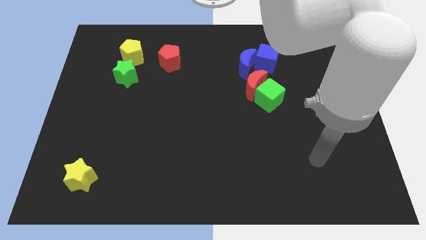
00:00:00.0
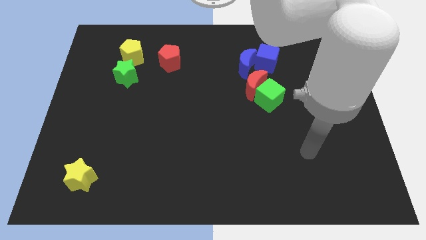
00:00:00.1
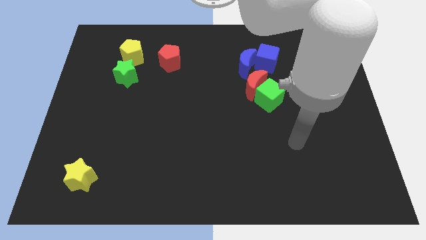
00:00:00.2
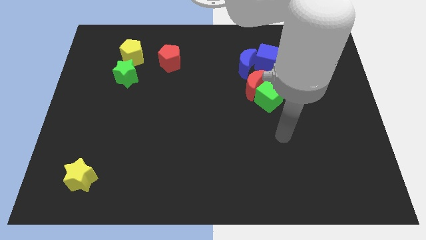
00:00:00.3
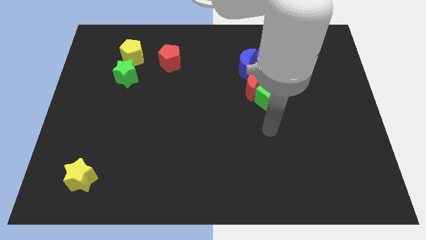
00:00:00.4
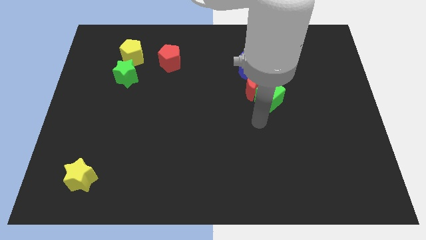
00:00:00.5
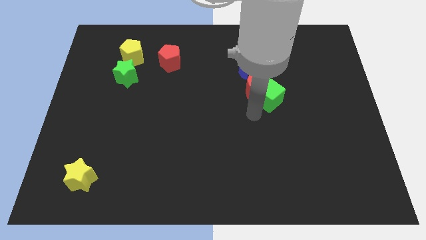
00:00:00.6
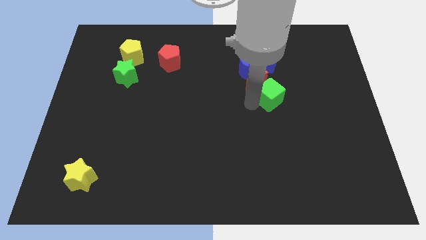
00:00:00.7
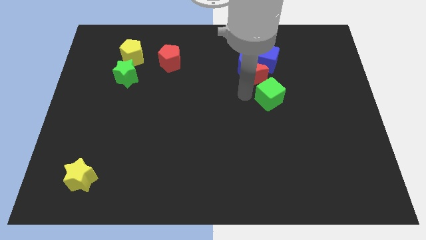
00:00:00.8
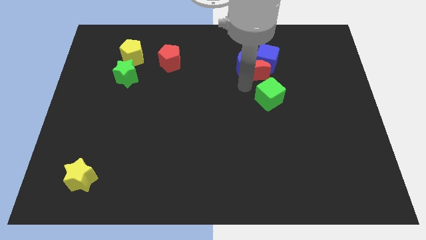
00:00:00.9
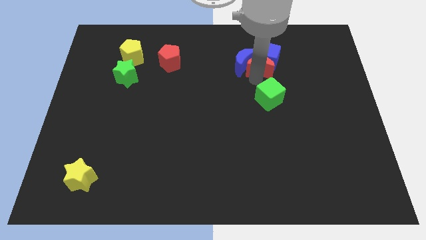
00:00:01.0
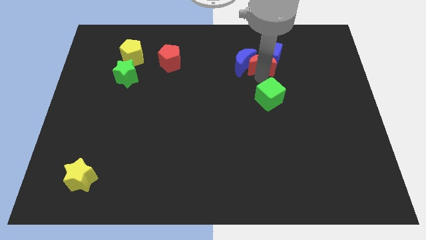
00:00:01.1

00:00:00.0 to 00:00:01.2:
move the green cube away from the red moon

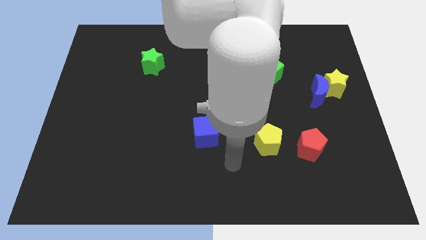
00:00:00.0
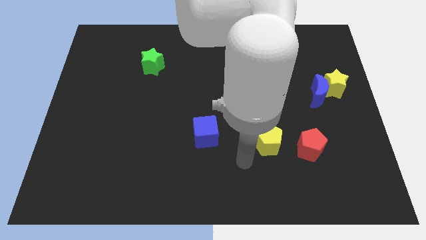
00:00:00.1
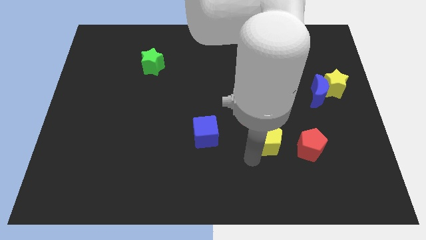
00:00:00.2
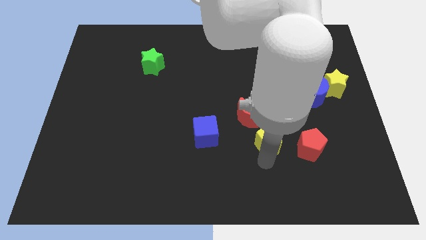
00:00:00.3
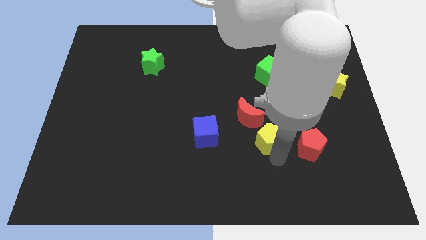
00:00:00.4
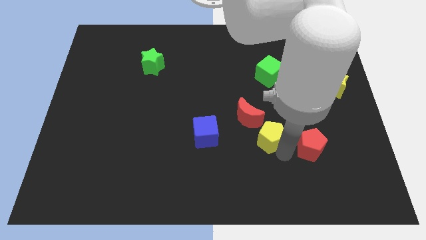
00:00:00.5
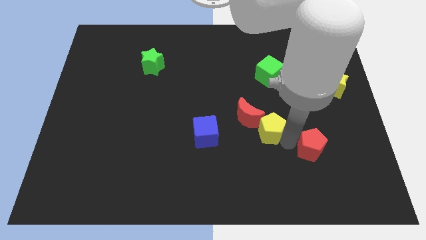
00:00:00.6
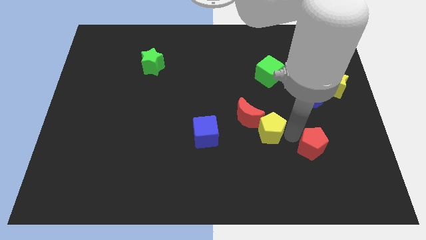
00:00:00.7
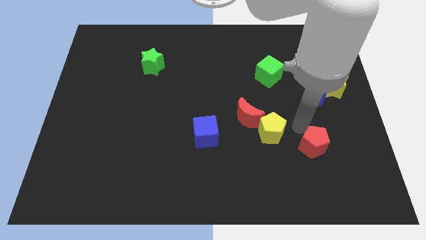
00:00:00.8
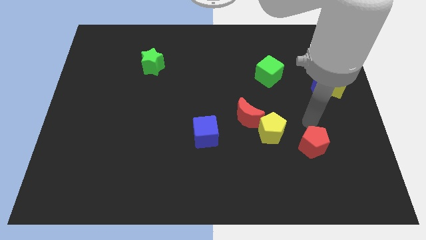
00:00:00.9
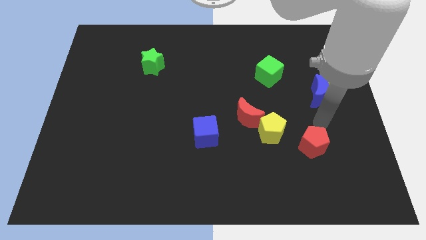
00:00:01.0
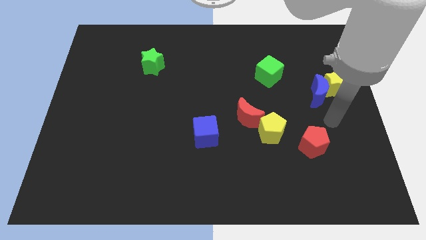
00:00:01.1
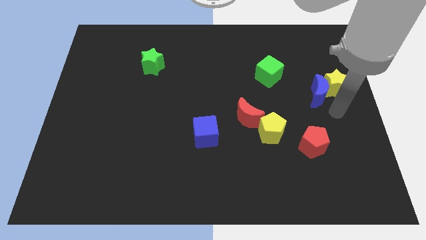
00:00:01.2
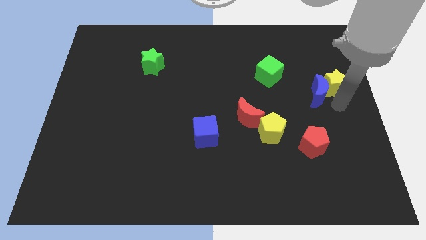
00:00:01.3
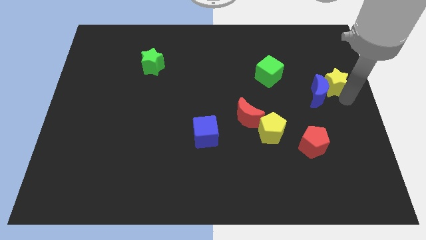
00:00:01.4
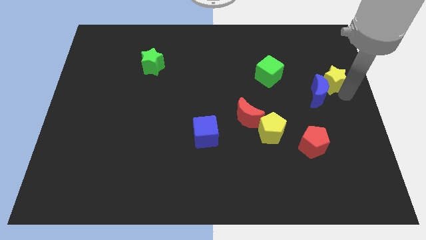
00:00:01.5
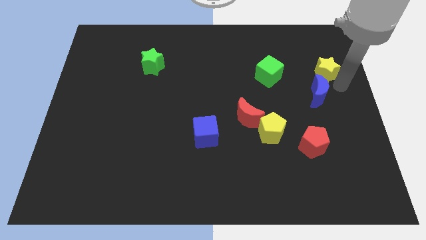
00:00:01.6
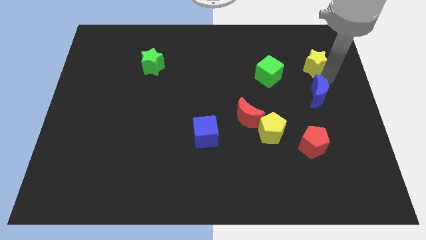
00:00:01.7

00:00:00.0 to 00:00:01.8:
pull the blue moon apart from the yellow star

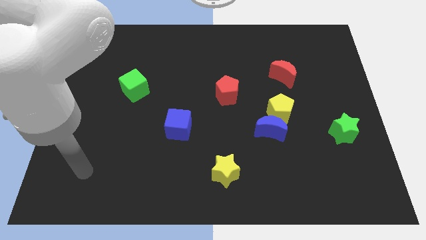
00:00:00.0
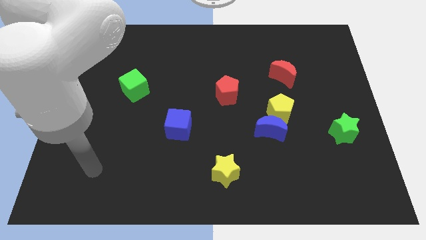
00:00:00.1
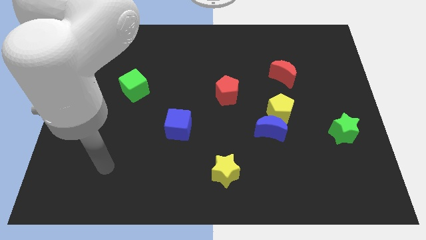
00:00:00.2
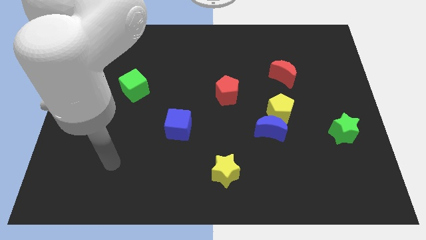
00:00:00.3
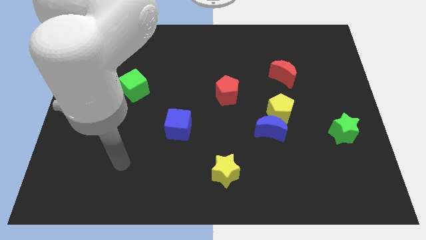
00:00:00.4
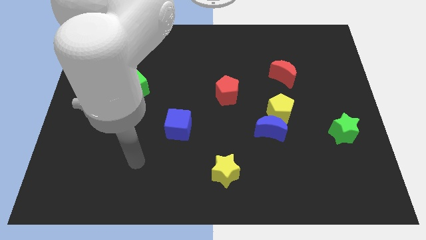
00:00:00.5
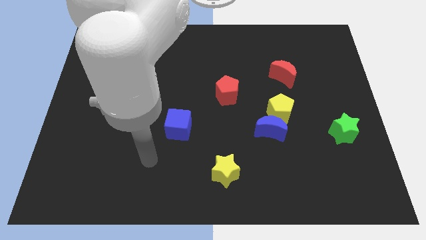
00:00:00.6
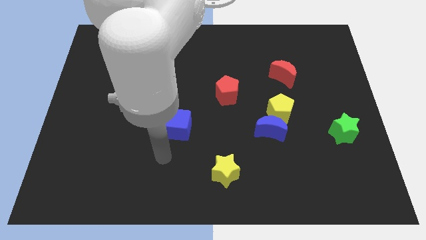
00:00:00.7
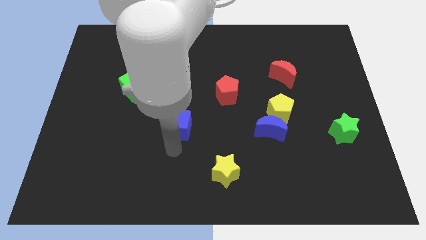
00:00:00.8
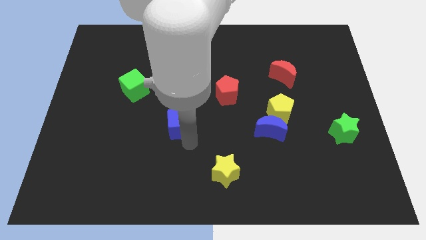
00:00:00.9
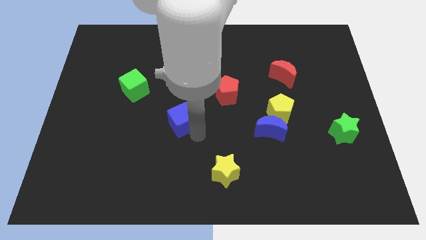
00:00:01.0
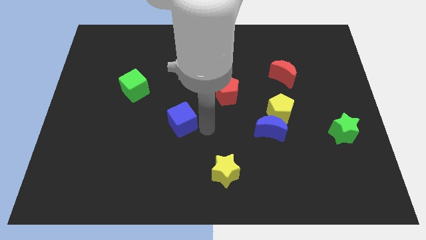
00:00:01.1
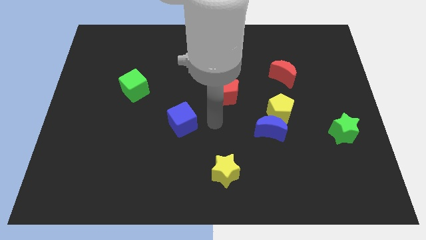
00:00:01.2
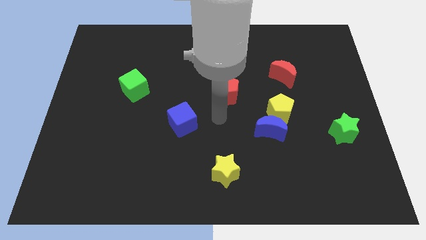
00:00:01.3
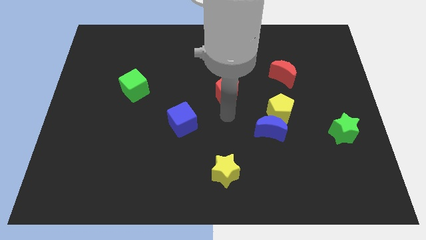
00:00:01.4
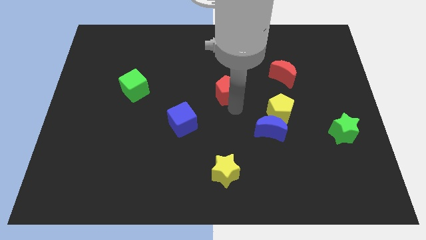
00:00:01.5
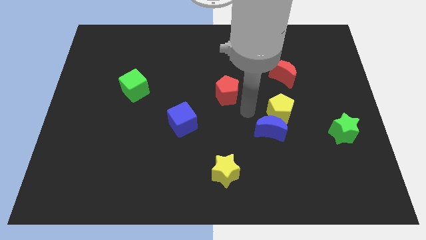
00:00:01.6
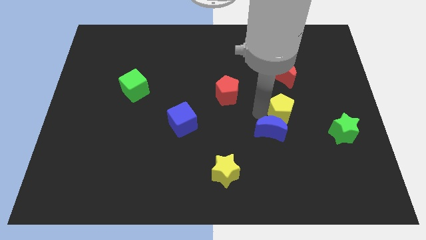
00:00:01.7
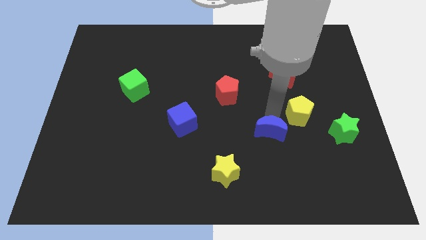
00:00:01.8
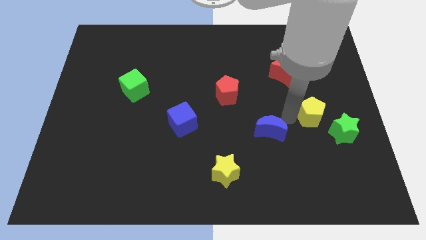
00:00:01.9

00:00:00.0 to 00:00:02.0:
move the blue moon away from the yellow pentagon

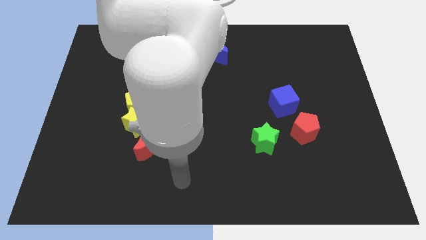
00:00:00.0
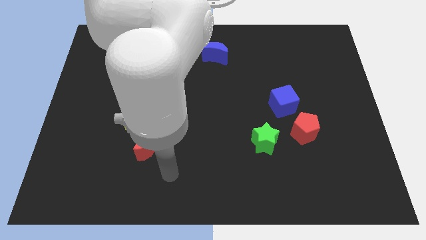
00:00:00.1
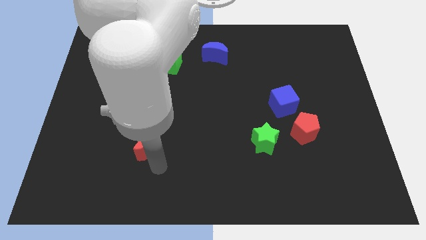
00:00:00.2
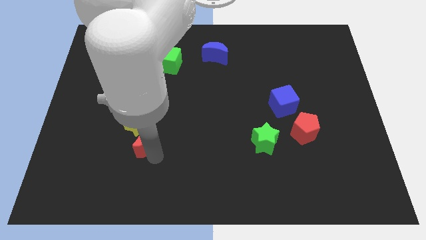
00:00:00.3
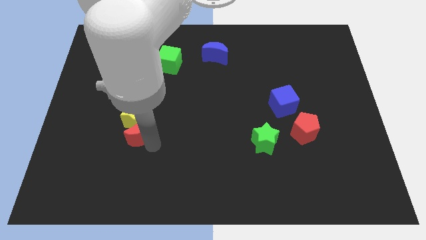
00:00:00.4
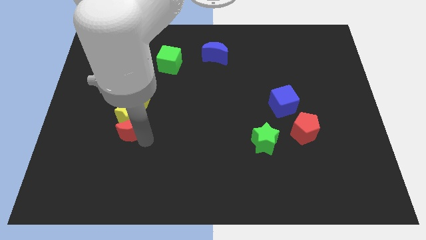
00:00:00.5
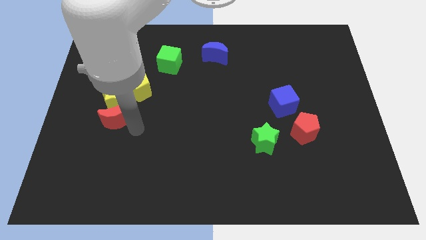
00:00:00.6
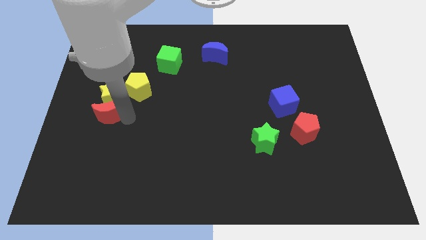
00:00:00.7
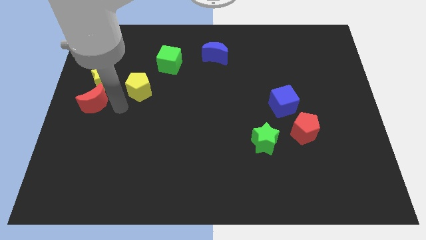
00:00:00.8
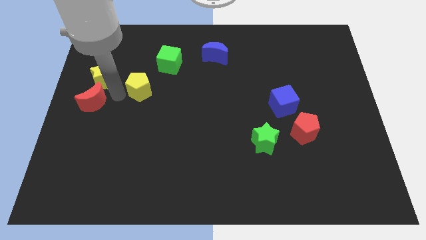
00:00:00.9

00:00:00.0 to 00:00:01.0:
separate the yellow pentagon from the yellow star

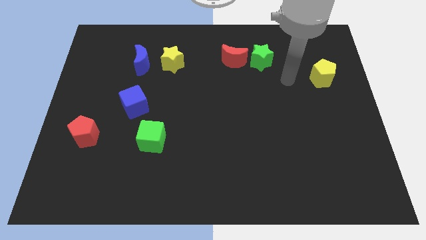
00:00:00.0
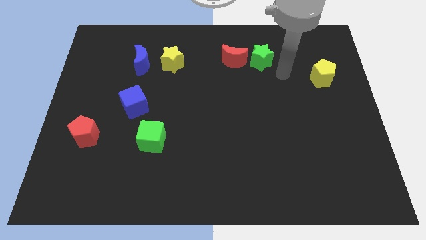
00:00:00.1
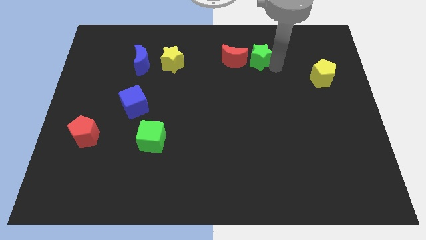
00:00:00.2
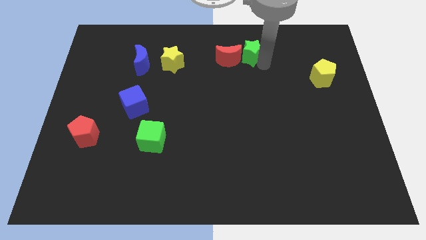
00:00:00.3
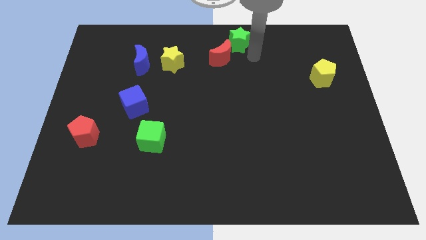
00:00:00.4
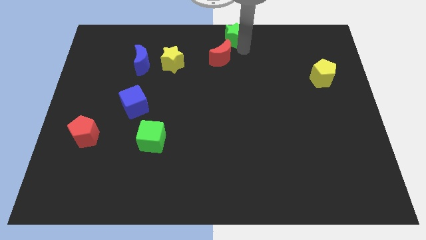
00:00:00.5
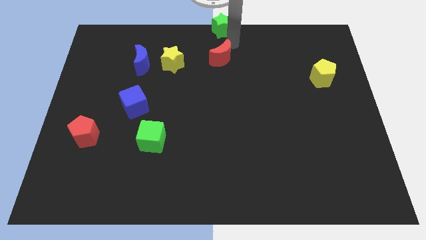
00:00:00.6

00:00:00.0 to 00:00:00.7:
separate the red moon from the green star

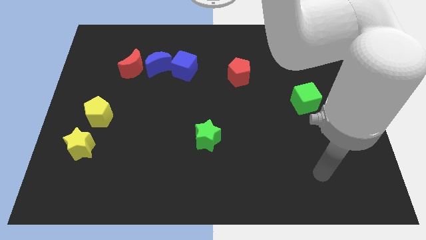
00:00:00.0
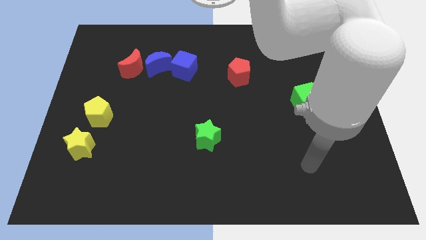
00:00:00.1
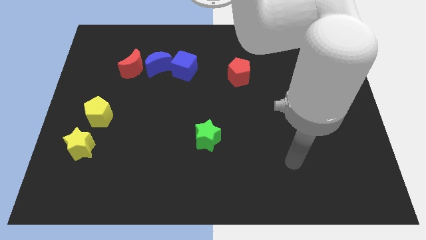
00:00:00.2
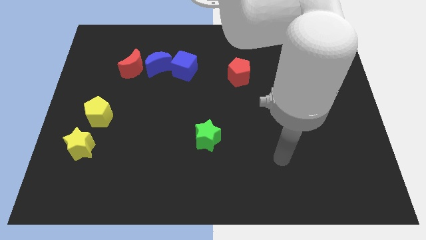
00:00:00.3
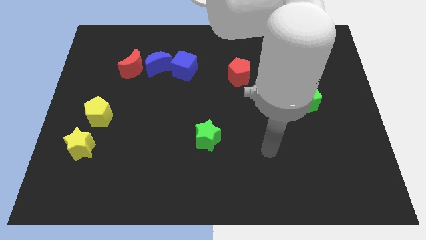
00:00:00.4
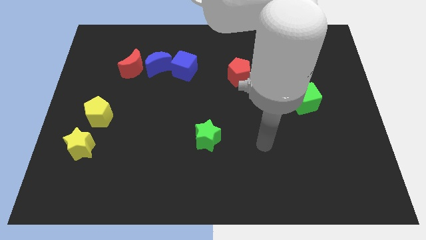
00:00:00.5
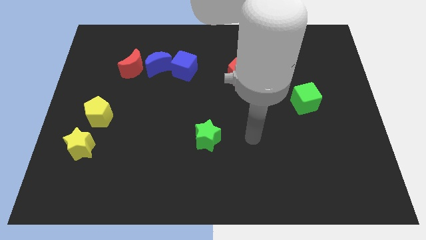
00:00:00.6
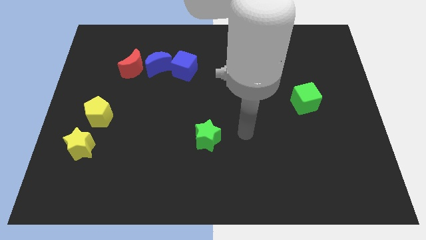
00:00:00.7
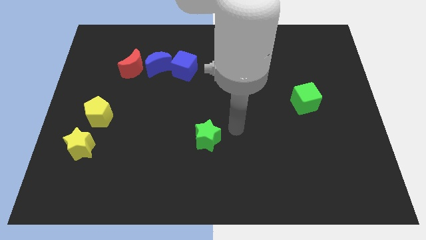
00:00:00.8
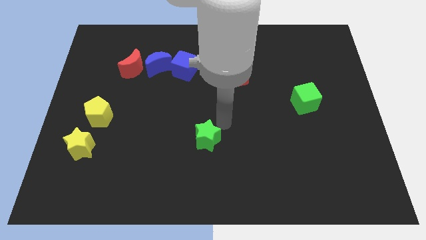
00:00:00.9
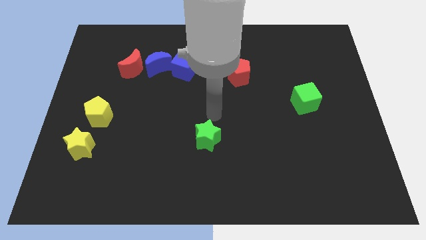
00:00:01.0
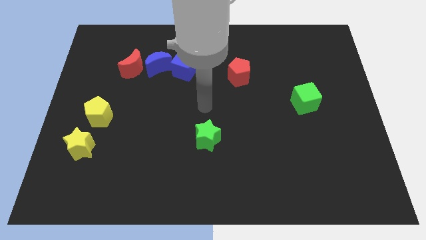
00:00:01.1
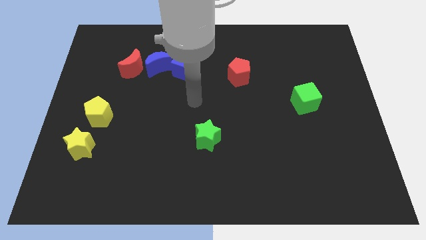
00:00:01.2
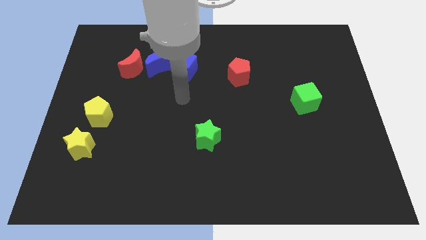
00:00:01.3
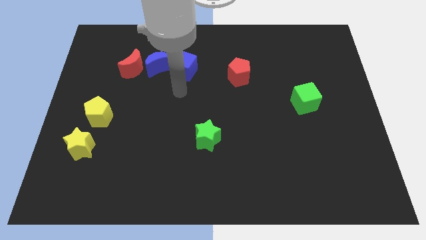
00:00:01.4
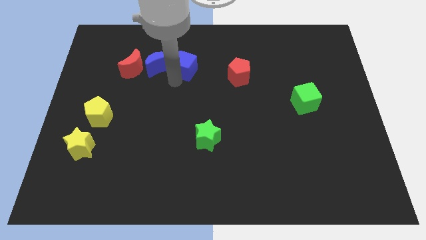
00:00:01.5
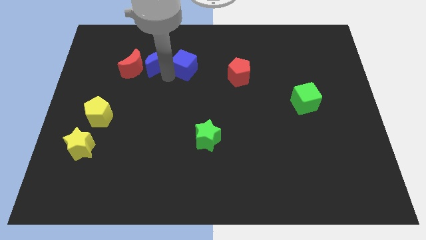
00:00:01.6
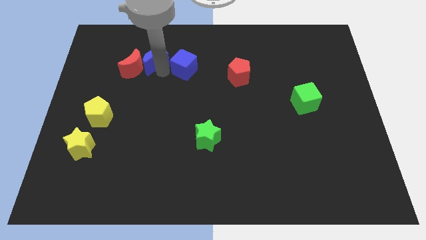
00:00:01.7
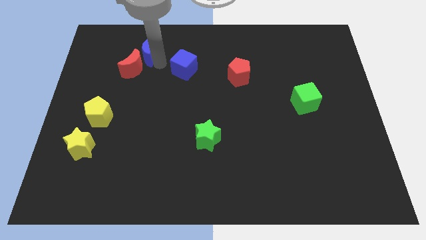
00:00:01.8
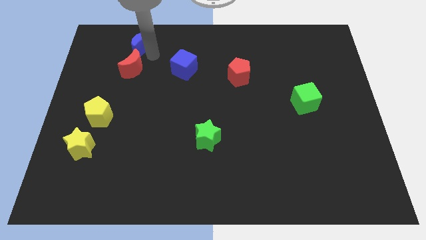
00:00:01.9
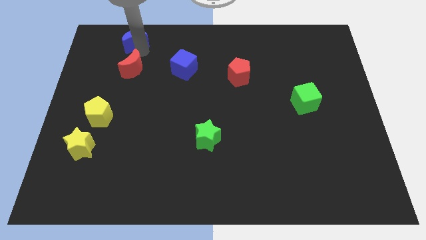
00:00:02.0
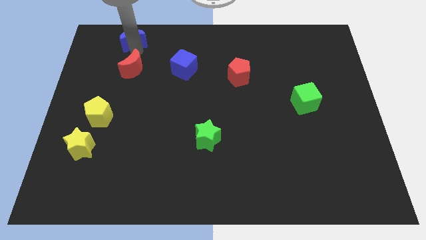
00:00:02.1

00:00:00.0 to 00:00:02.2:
pull the red moon apart from the blue moon

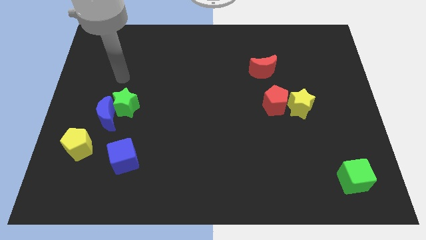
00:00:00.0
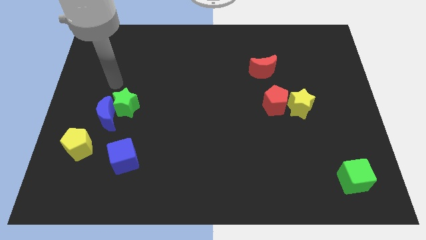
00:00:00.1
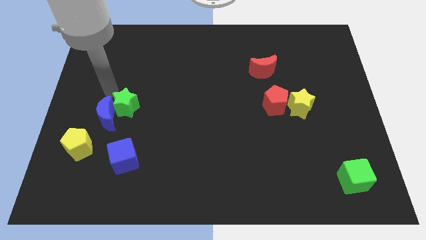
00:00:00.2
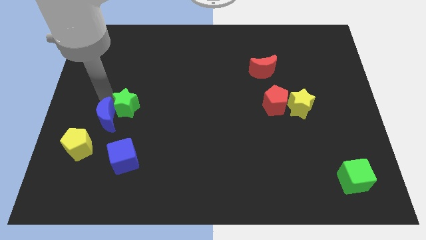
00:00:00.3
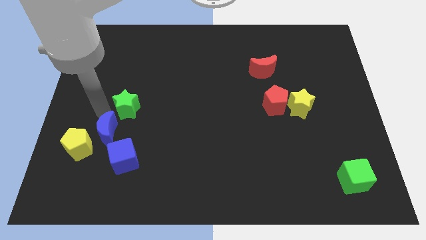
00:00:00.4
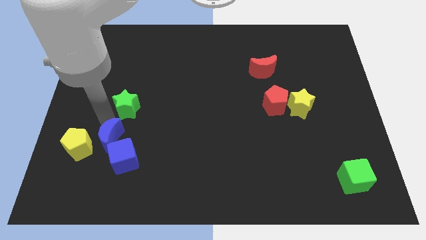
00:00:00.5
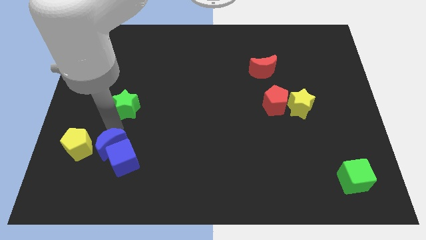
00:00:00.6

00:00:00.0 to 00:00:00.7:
separate the green star from the blue moon
